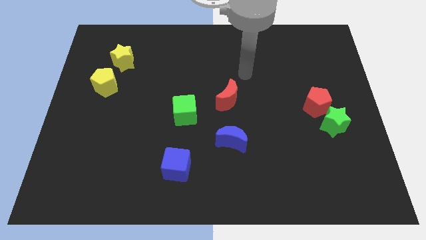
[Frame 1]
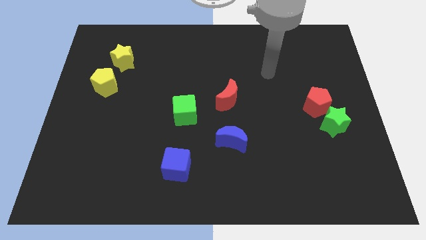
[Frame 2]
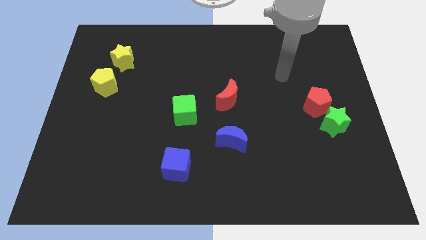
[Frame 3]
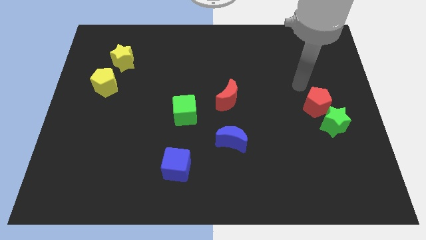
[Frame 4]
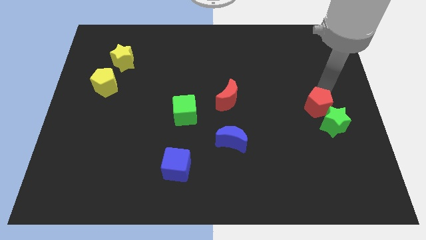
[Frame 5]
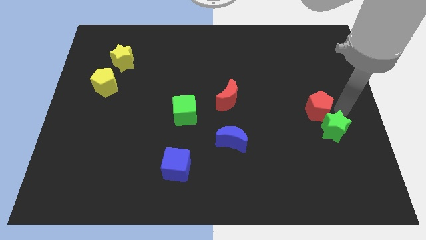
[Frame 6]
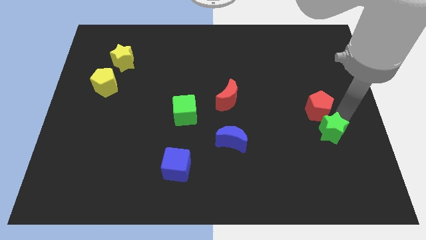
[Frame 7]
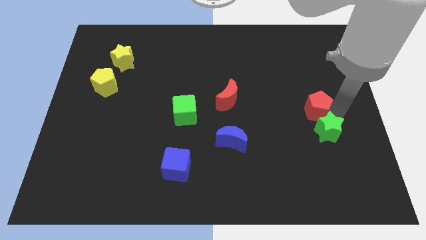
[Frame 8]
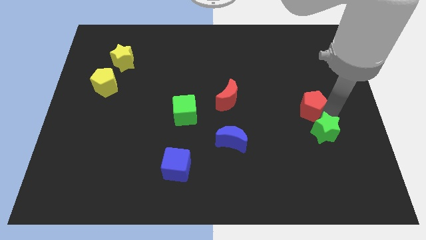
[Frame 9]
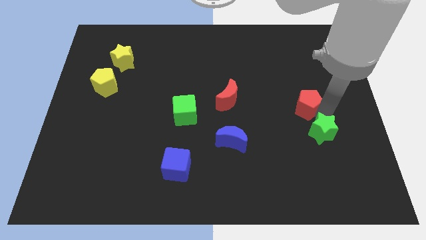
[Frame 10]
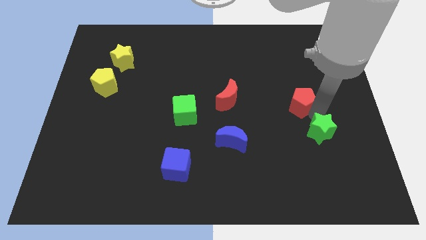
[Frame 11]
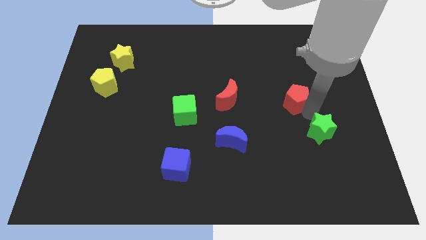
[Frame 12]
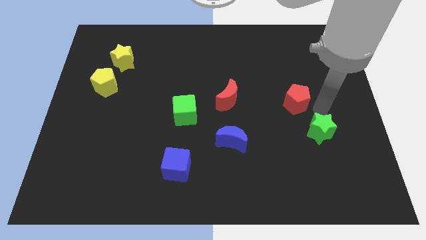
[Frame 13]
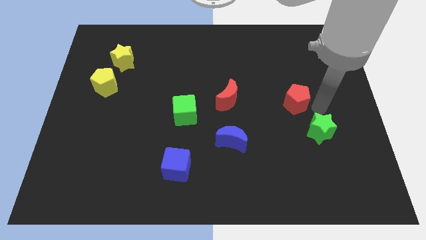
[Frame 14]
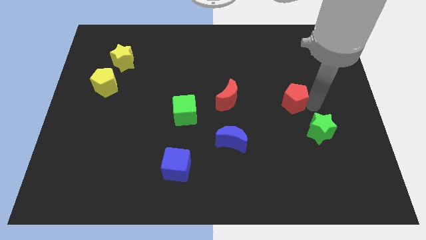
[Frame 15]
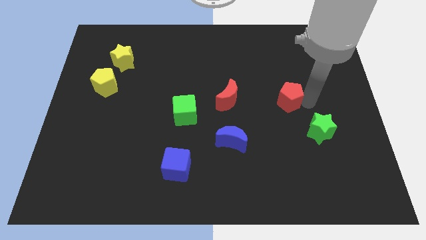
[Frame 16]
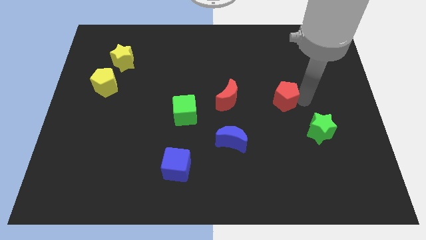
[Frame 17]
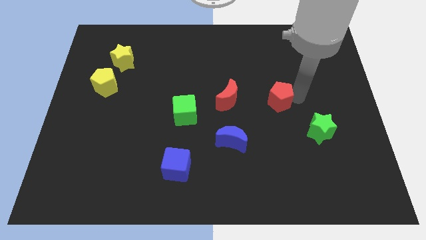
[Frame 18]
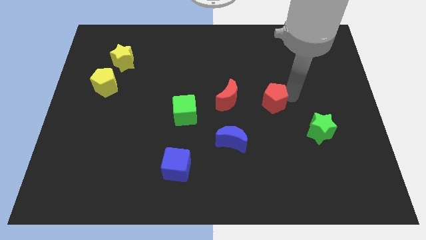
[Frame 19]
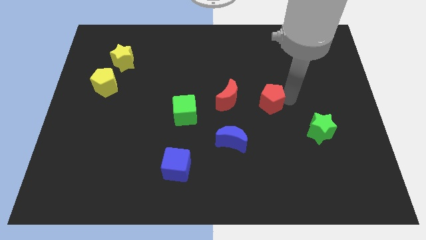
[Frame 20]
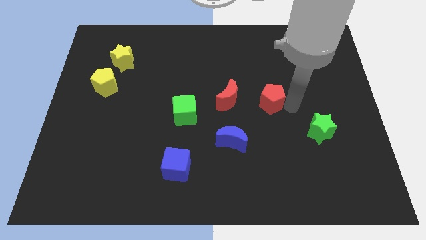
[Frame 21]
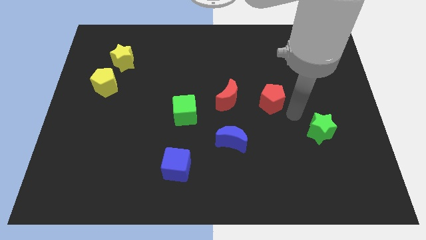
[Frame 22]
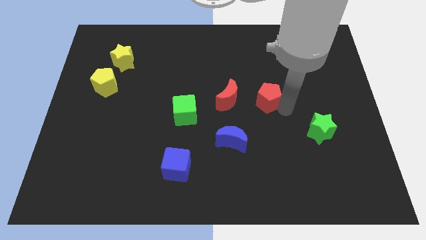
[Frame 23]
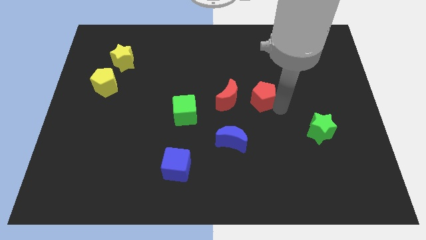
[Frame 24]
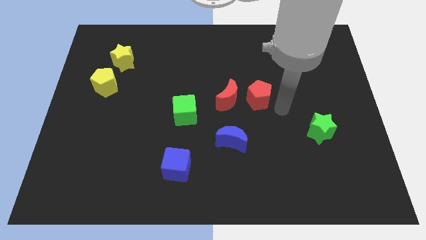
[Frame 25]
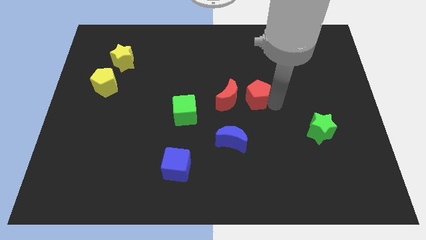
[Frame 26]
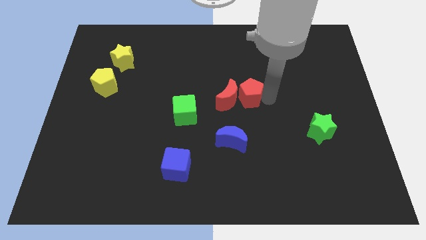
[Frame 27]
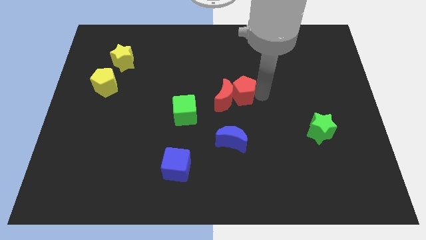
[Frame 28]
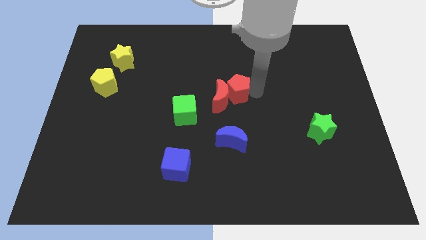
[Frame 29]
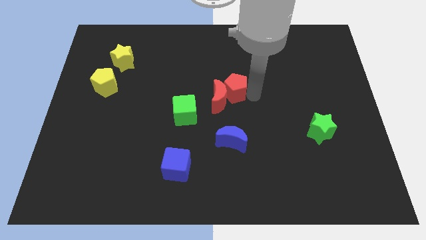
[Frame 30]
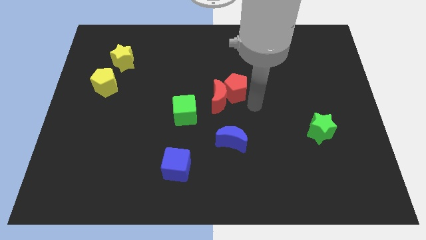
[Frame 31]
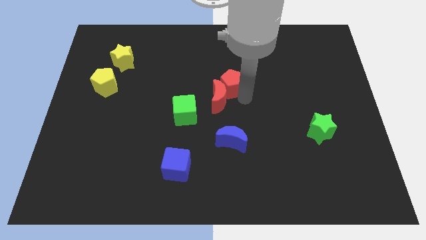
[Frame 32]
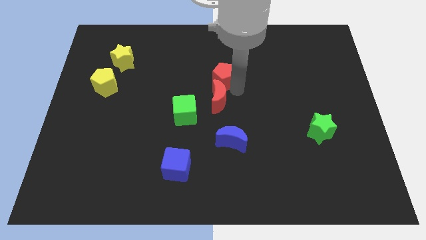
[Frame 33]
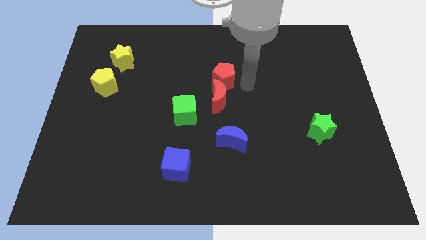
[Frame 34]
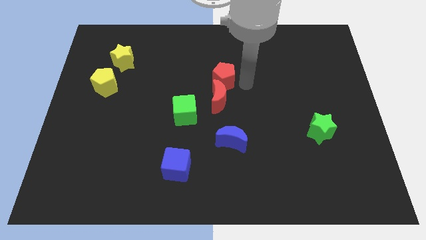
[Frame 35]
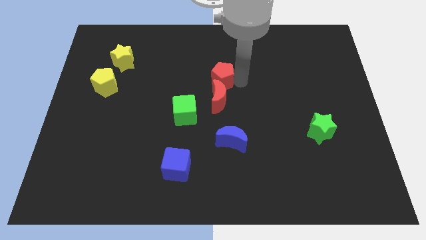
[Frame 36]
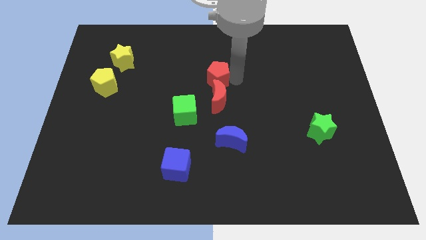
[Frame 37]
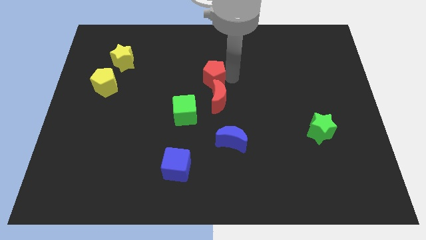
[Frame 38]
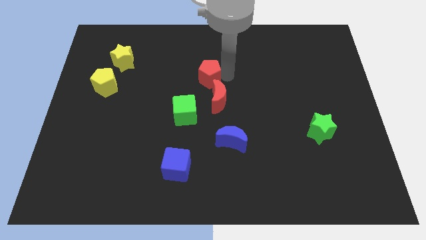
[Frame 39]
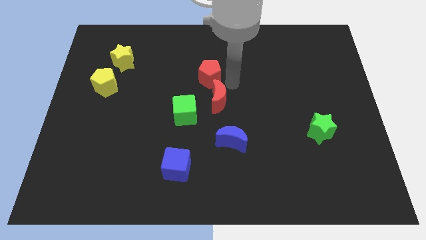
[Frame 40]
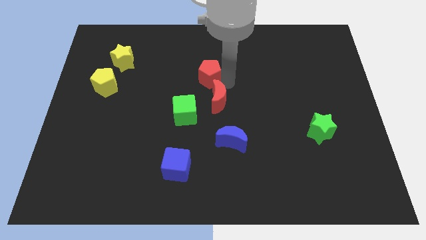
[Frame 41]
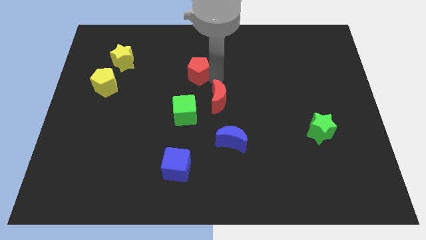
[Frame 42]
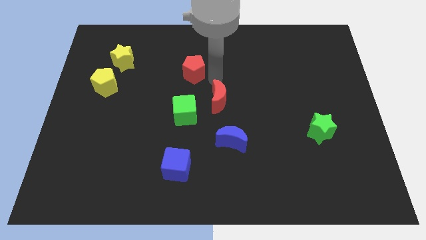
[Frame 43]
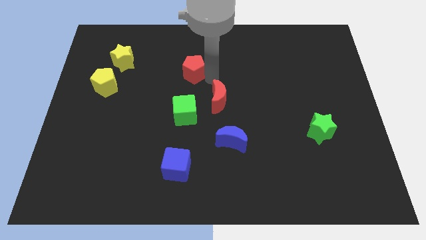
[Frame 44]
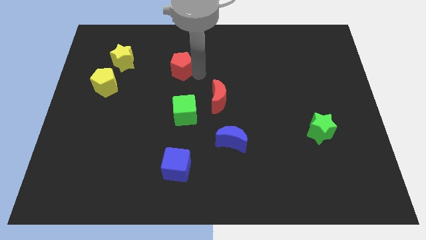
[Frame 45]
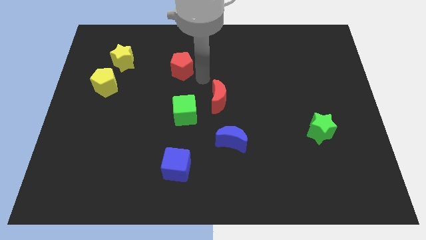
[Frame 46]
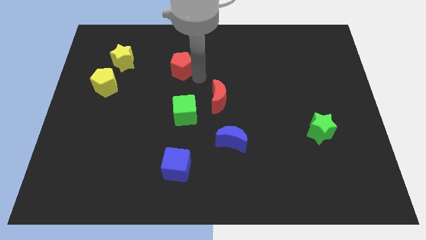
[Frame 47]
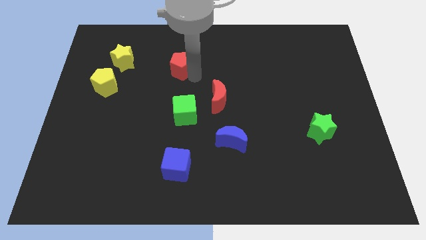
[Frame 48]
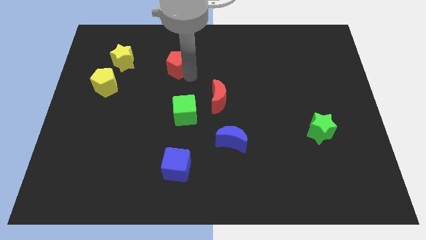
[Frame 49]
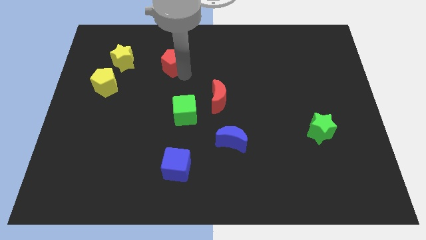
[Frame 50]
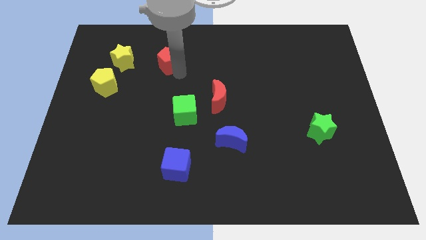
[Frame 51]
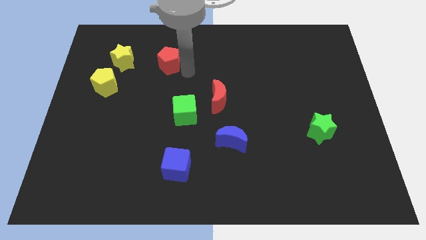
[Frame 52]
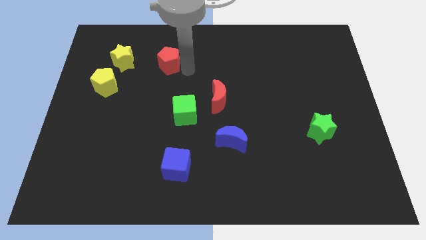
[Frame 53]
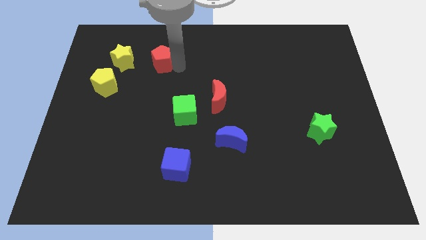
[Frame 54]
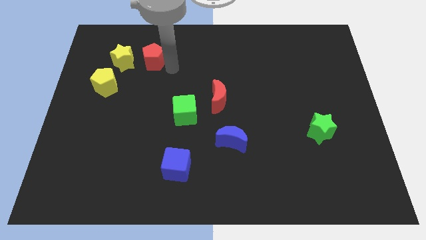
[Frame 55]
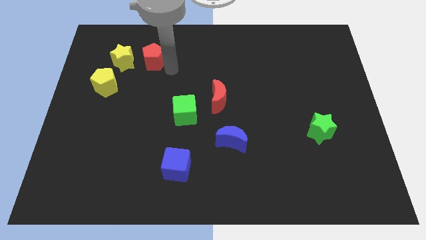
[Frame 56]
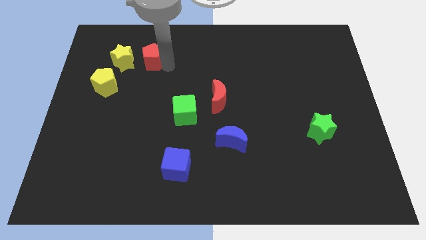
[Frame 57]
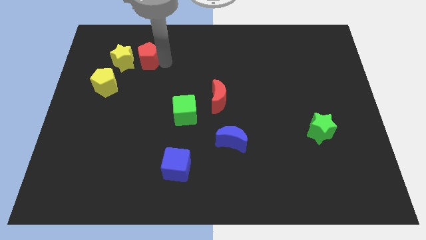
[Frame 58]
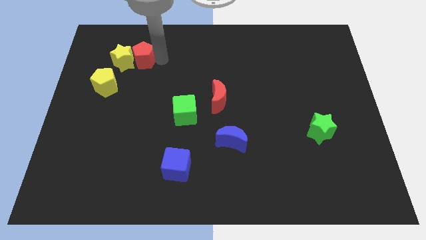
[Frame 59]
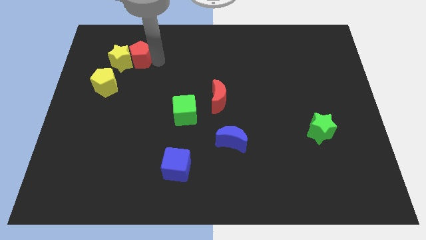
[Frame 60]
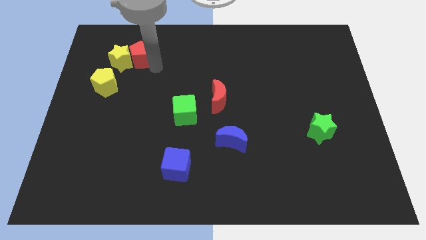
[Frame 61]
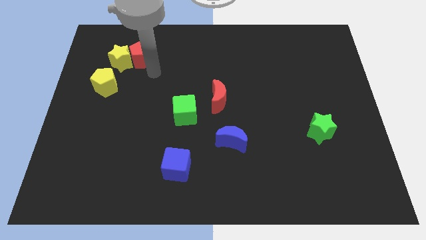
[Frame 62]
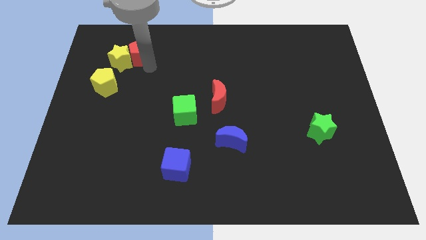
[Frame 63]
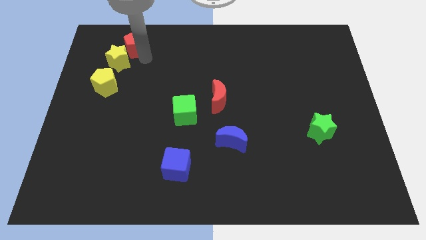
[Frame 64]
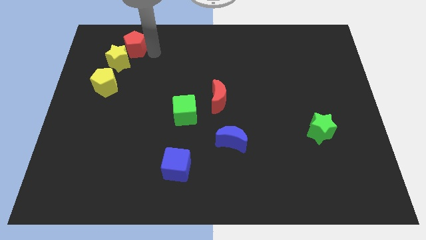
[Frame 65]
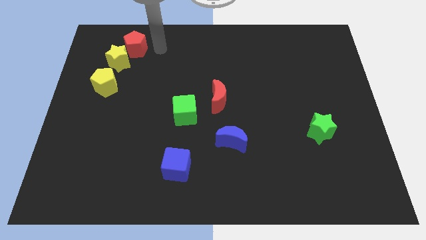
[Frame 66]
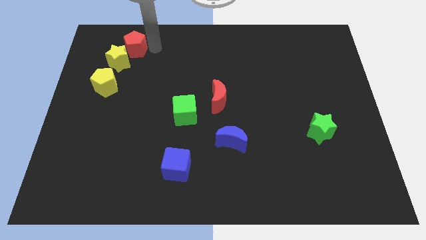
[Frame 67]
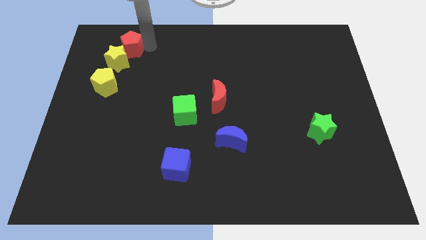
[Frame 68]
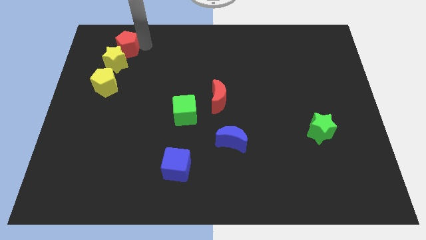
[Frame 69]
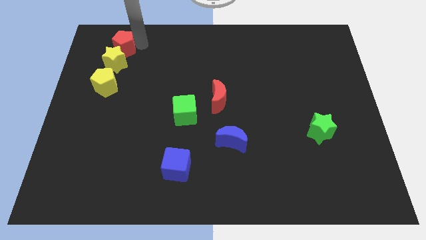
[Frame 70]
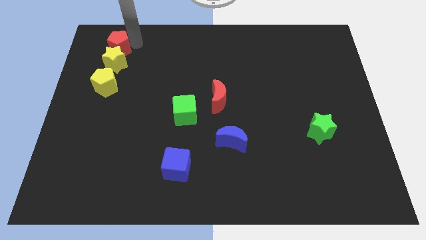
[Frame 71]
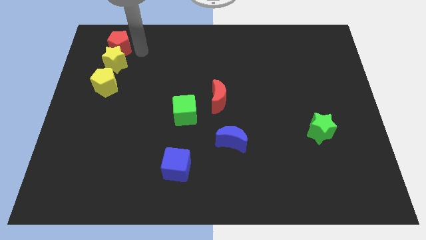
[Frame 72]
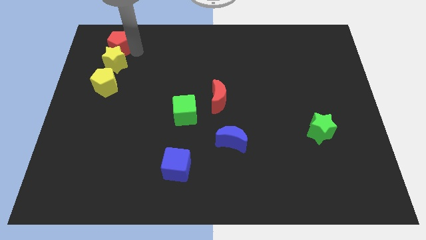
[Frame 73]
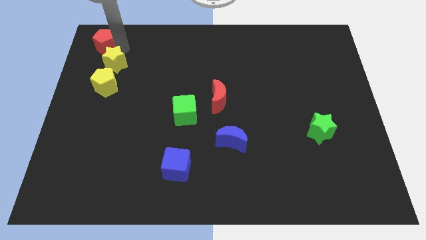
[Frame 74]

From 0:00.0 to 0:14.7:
move the red pentagon to the top left corner
